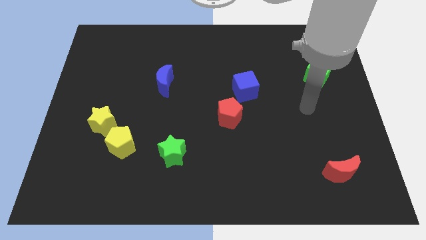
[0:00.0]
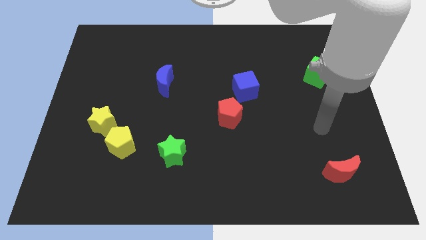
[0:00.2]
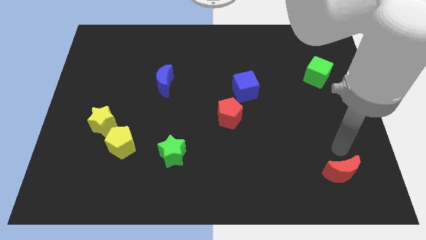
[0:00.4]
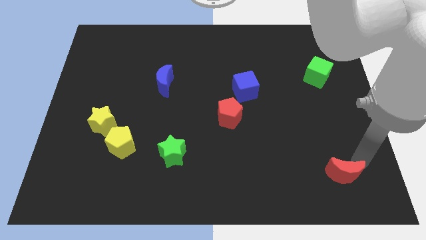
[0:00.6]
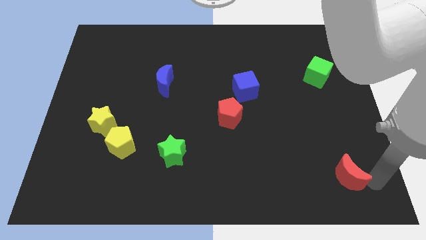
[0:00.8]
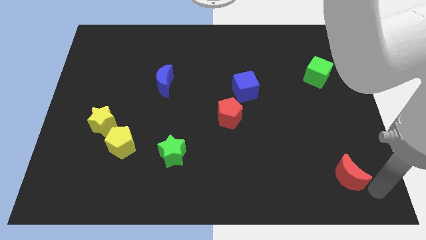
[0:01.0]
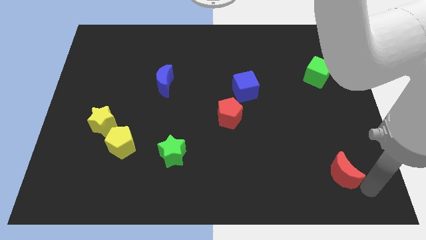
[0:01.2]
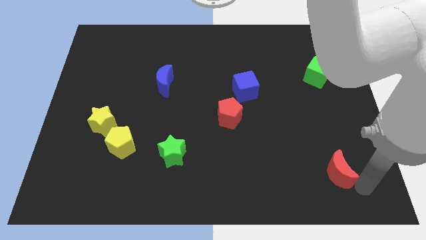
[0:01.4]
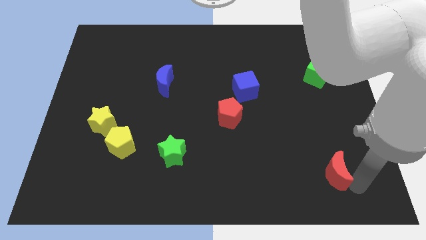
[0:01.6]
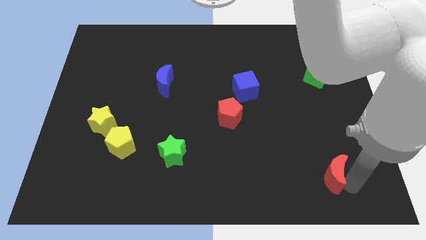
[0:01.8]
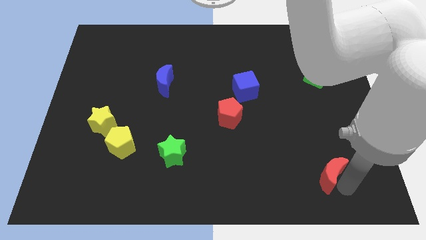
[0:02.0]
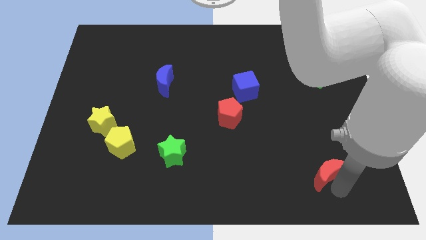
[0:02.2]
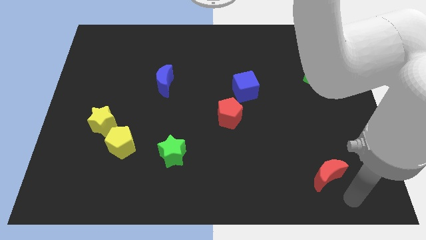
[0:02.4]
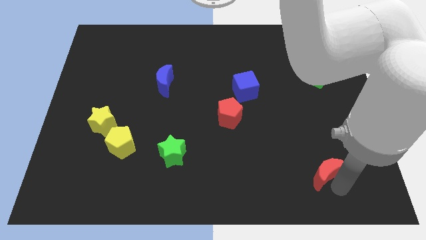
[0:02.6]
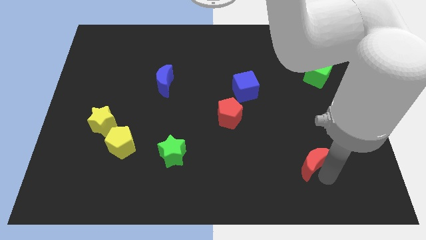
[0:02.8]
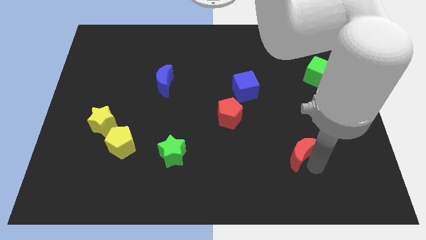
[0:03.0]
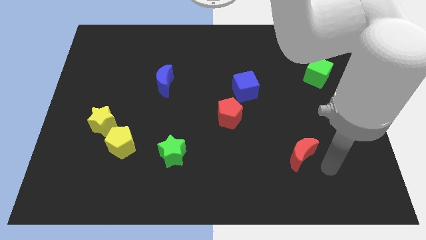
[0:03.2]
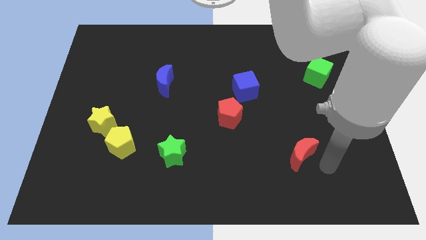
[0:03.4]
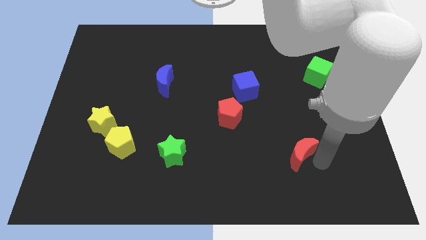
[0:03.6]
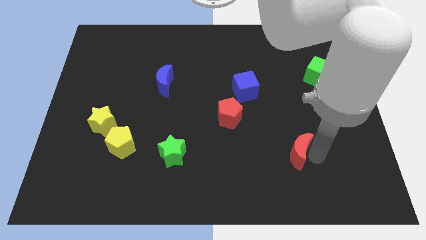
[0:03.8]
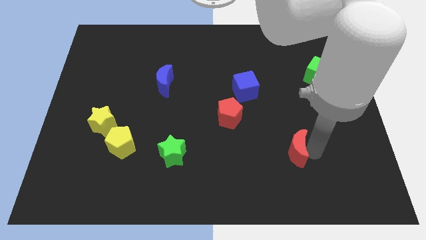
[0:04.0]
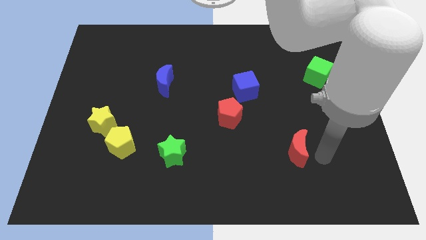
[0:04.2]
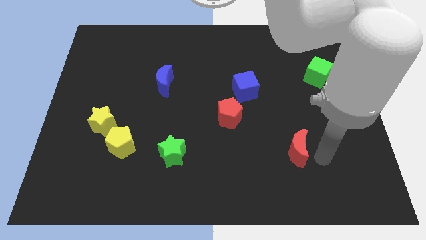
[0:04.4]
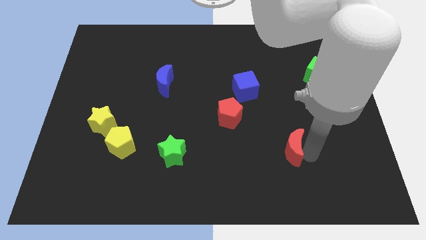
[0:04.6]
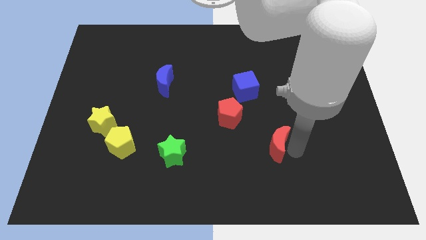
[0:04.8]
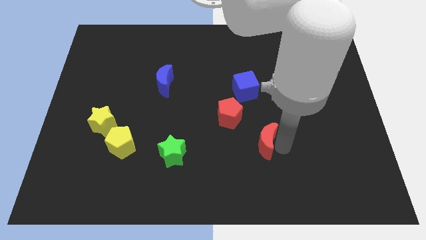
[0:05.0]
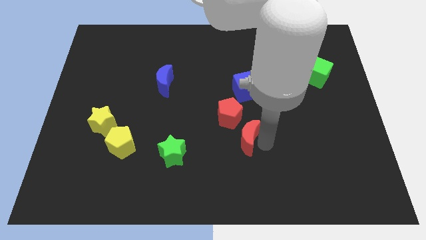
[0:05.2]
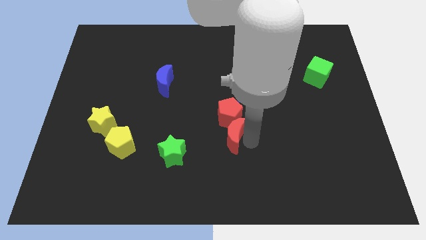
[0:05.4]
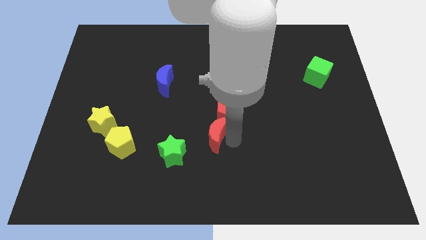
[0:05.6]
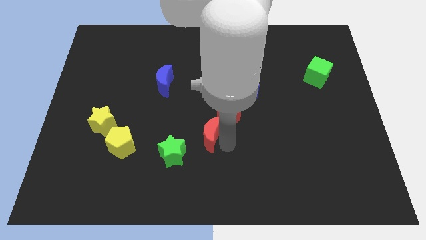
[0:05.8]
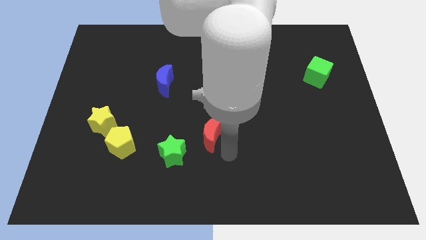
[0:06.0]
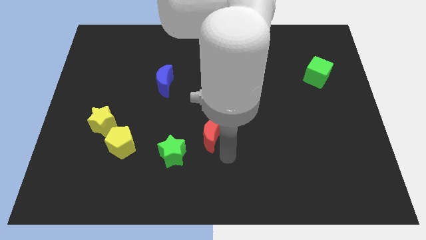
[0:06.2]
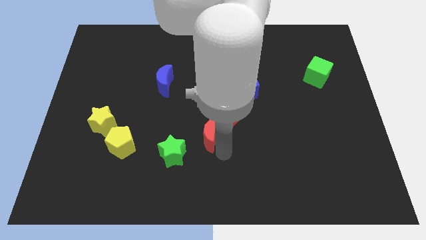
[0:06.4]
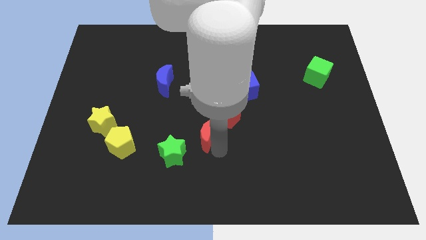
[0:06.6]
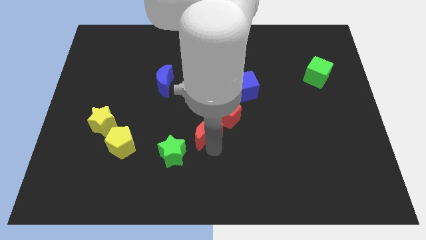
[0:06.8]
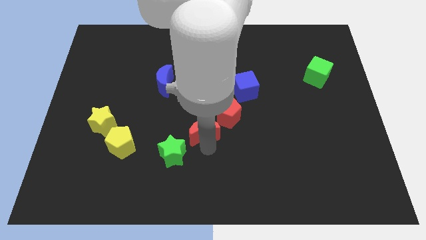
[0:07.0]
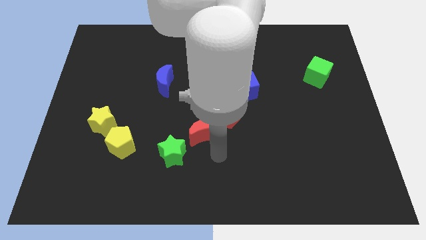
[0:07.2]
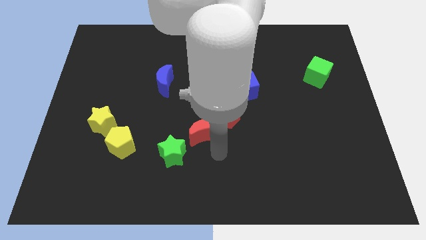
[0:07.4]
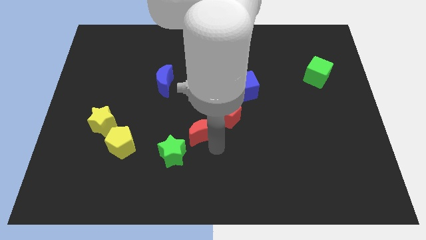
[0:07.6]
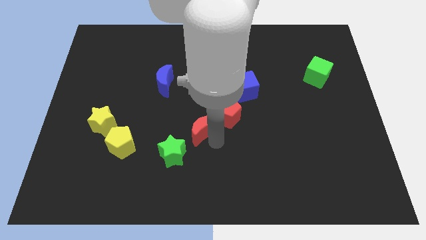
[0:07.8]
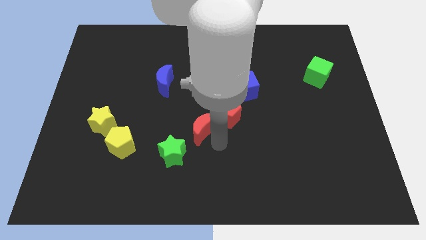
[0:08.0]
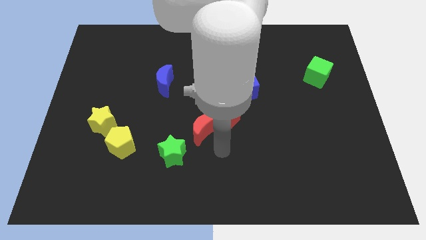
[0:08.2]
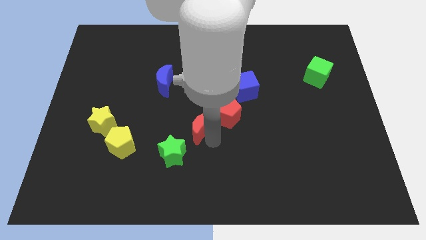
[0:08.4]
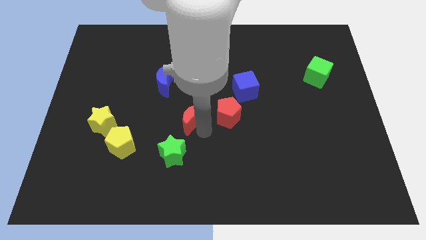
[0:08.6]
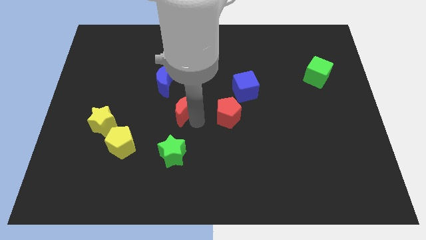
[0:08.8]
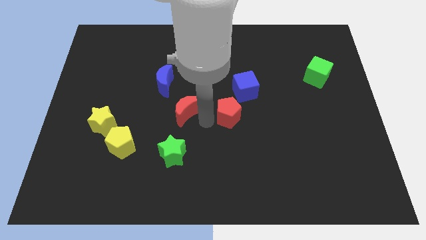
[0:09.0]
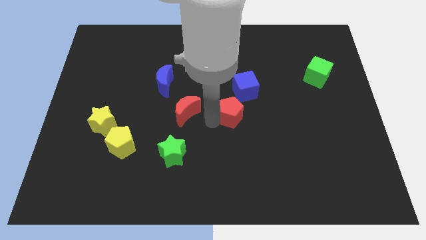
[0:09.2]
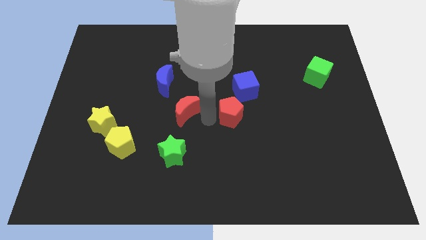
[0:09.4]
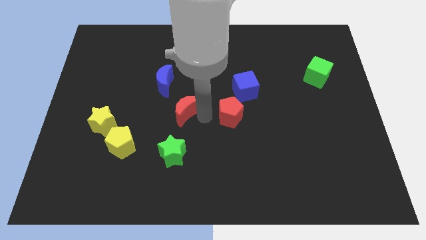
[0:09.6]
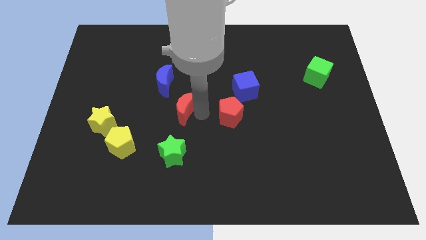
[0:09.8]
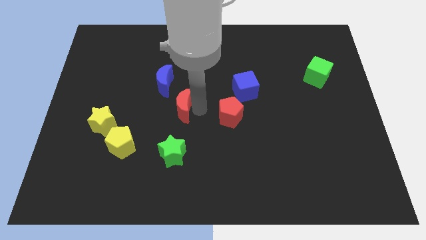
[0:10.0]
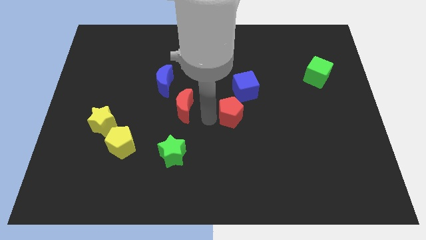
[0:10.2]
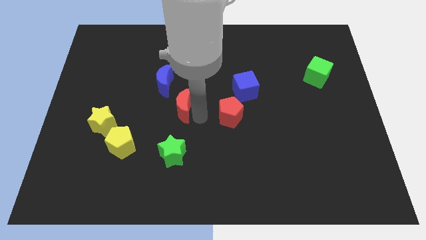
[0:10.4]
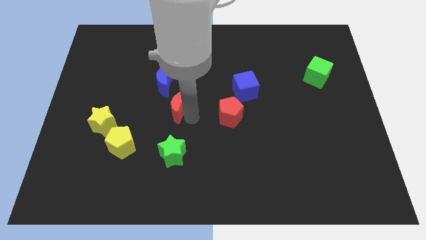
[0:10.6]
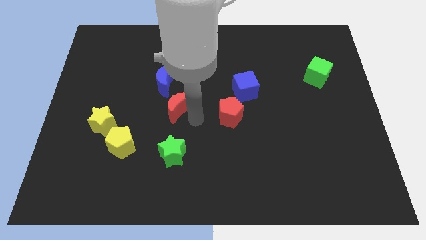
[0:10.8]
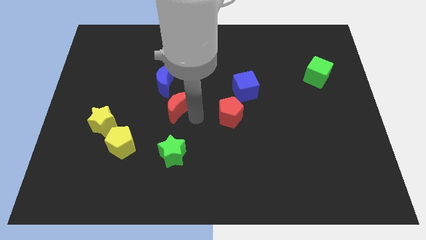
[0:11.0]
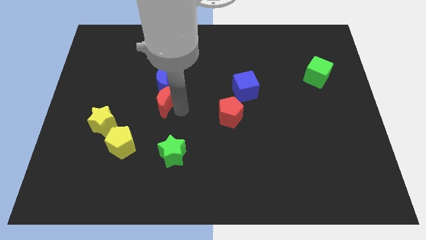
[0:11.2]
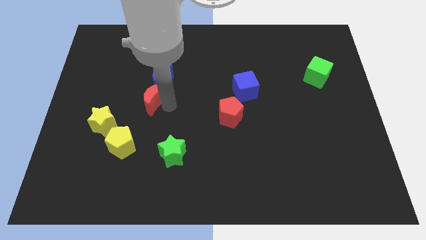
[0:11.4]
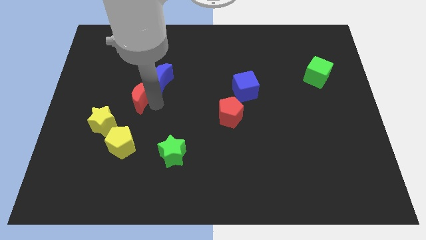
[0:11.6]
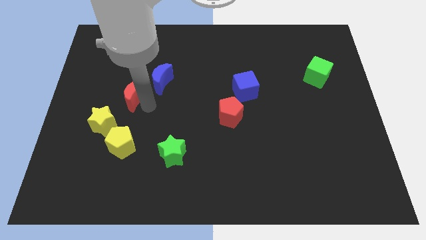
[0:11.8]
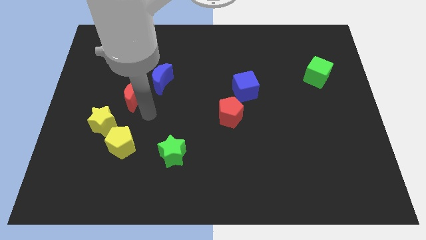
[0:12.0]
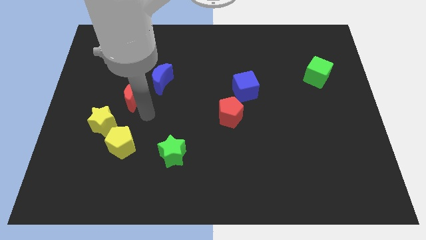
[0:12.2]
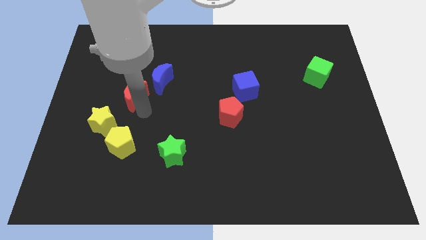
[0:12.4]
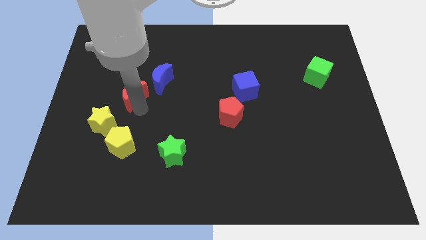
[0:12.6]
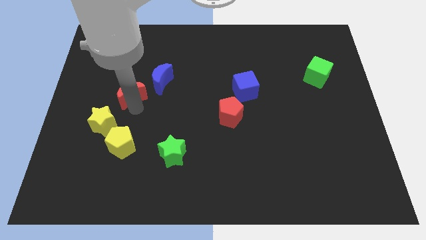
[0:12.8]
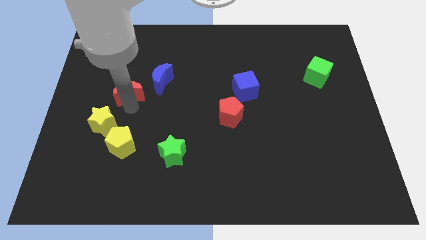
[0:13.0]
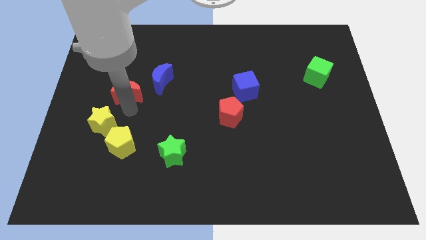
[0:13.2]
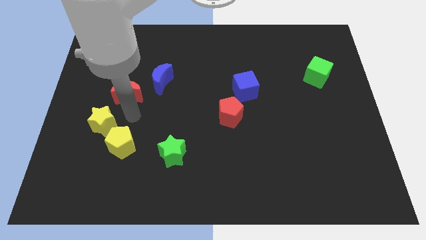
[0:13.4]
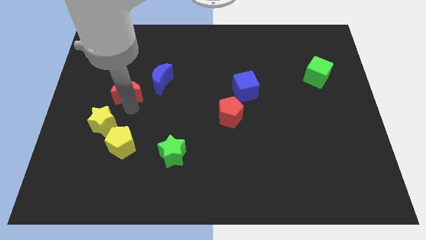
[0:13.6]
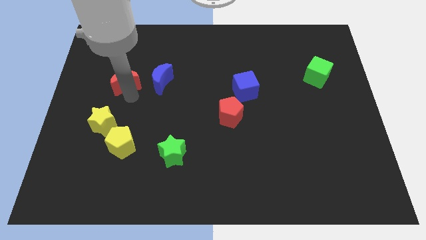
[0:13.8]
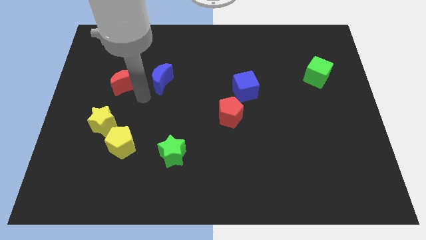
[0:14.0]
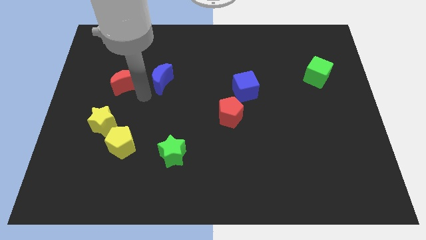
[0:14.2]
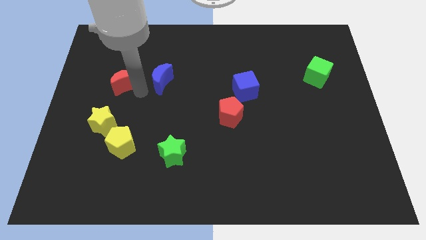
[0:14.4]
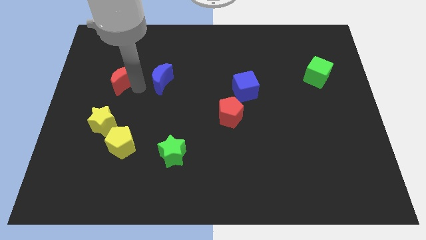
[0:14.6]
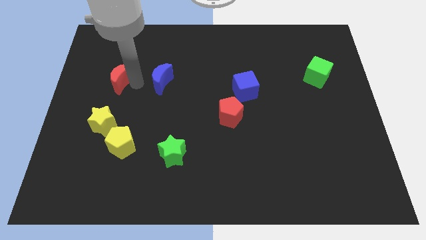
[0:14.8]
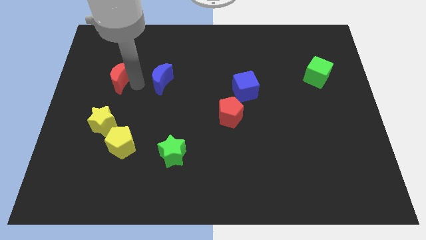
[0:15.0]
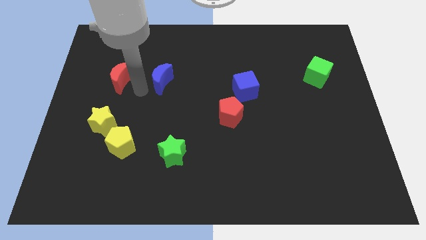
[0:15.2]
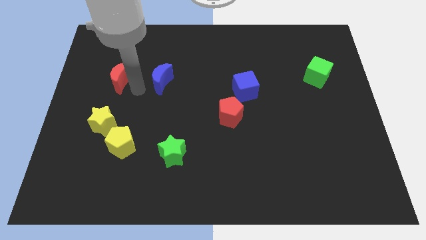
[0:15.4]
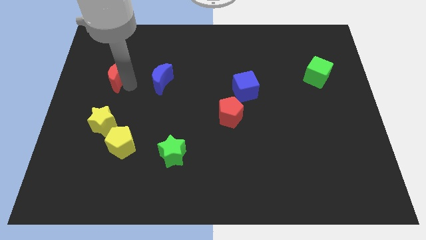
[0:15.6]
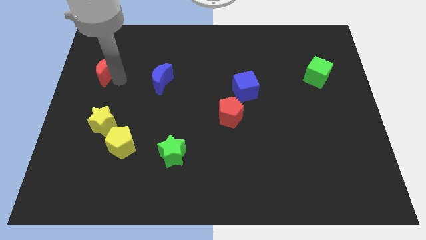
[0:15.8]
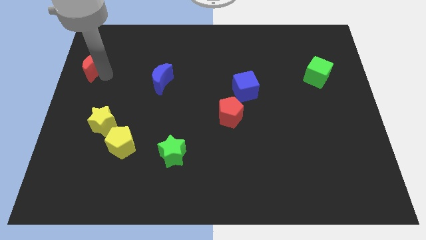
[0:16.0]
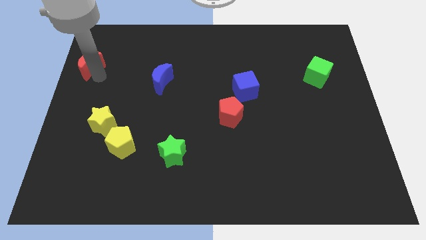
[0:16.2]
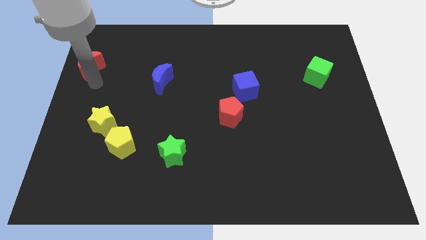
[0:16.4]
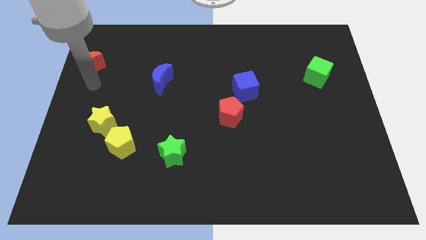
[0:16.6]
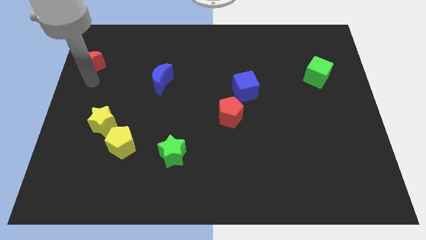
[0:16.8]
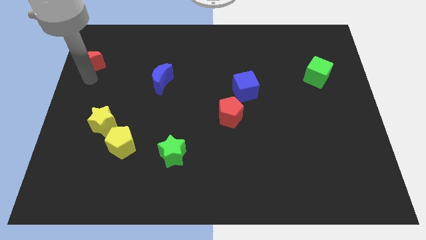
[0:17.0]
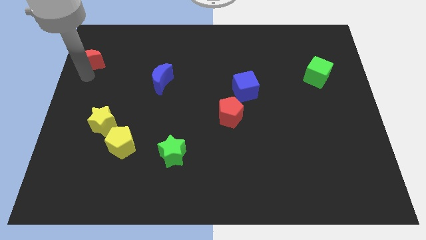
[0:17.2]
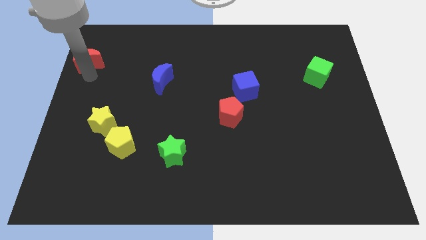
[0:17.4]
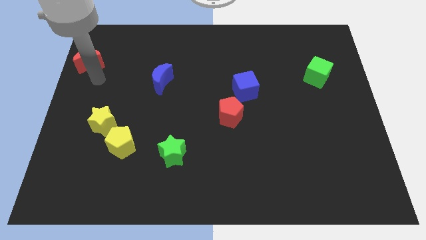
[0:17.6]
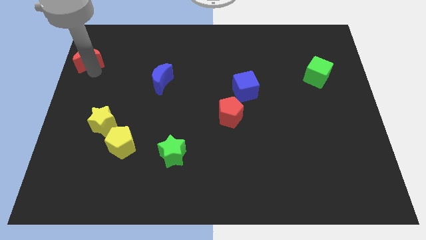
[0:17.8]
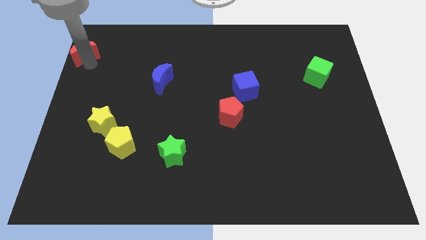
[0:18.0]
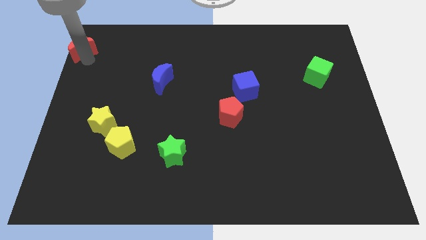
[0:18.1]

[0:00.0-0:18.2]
slide the red moon to the top left corner
